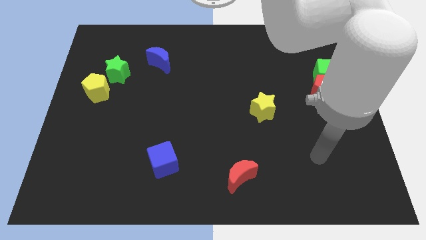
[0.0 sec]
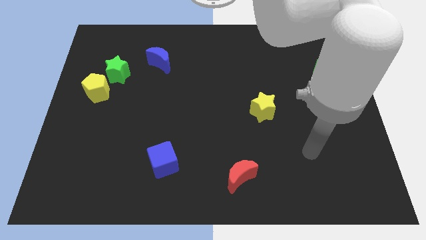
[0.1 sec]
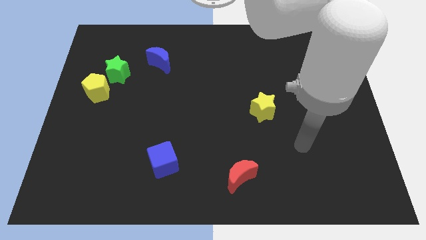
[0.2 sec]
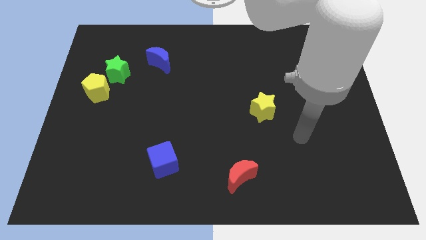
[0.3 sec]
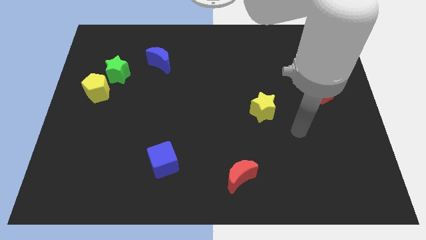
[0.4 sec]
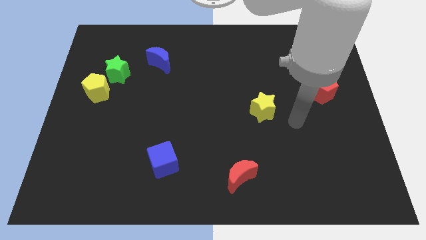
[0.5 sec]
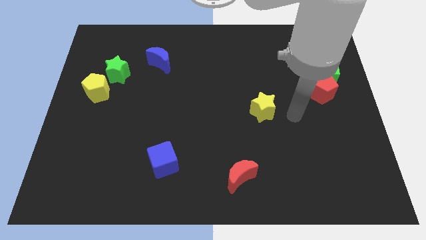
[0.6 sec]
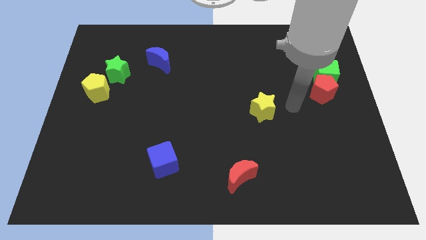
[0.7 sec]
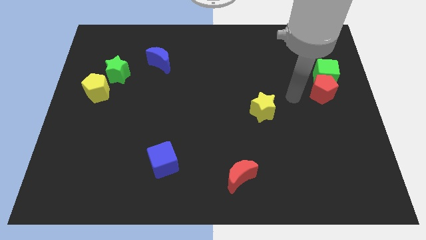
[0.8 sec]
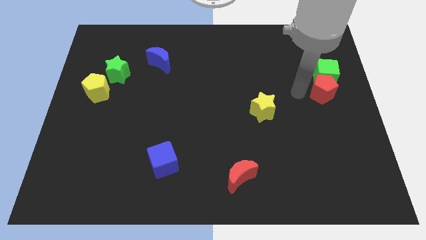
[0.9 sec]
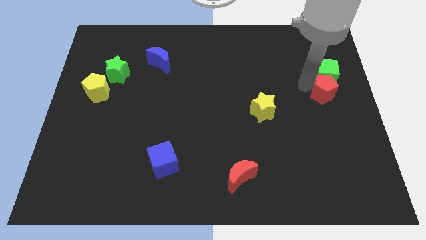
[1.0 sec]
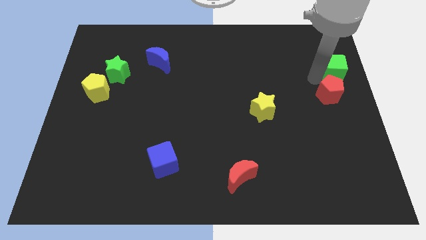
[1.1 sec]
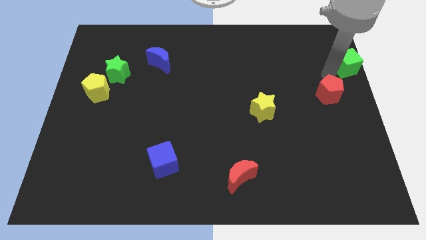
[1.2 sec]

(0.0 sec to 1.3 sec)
pull the red pentagon apart from the green cube

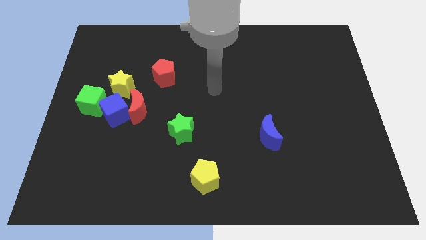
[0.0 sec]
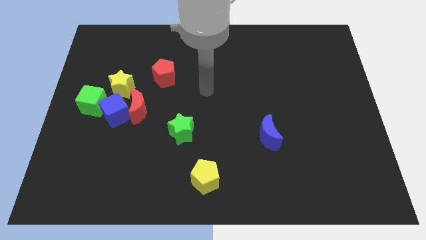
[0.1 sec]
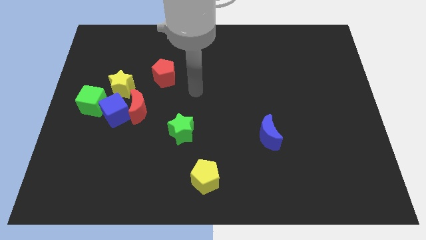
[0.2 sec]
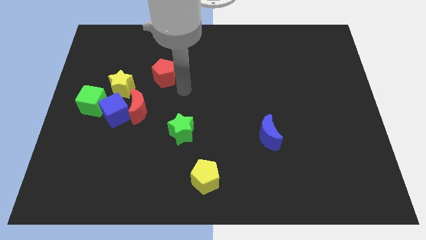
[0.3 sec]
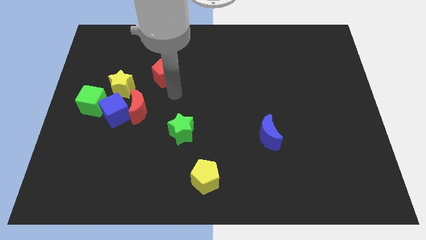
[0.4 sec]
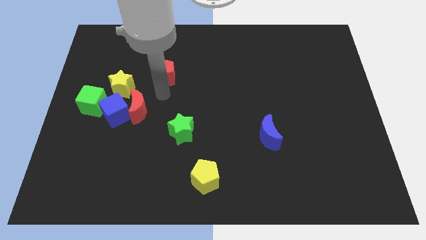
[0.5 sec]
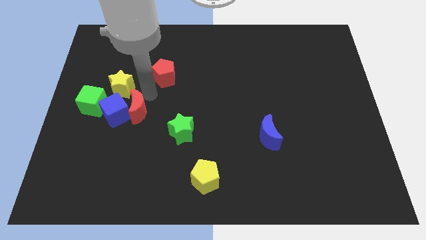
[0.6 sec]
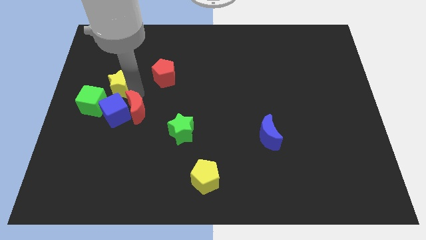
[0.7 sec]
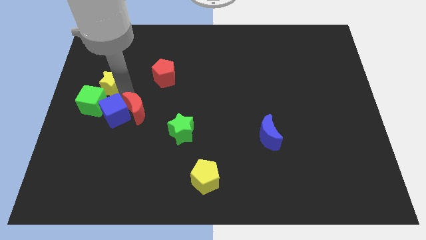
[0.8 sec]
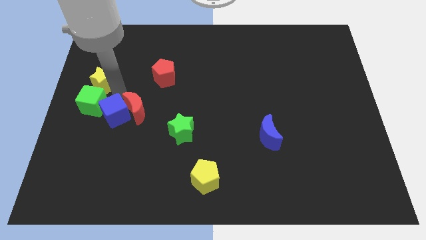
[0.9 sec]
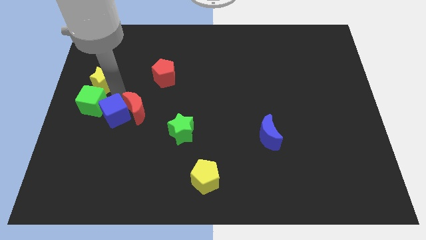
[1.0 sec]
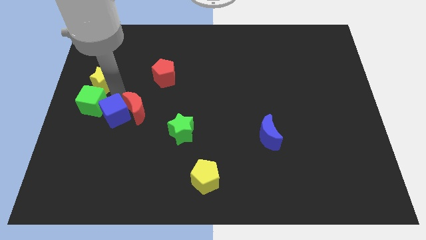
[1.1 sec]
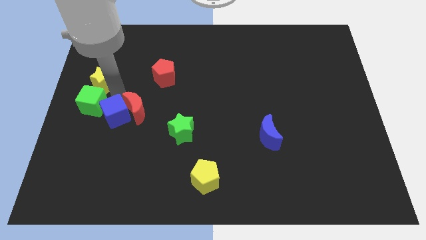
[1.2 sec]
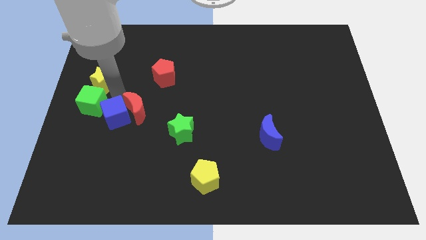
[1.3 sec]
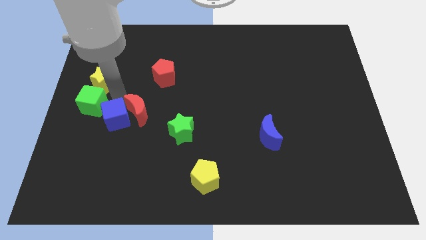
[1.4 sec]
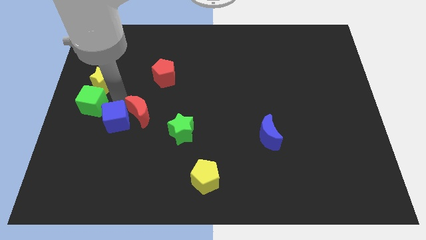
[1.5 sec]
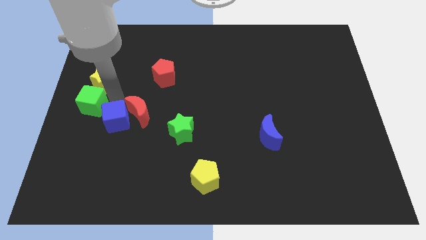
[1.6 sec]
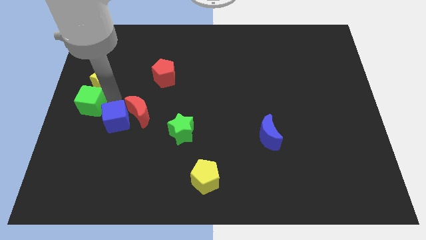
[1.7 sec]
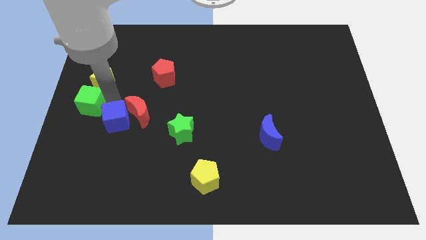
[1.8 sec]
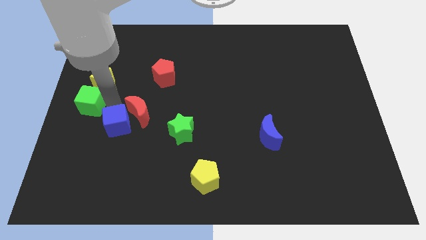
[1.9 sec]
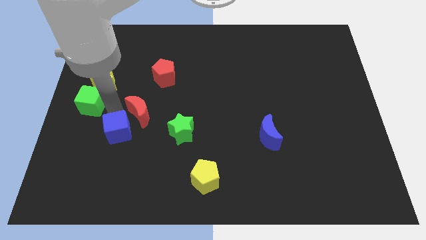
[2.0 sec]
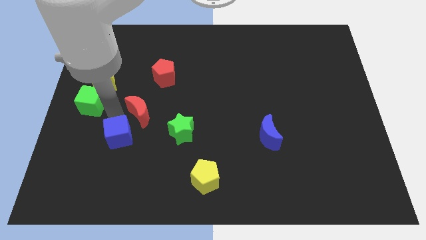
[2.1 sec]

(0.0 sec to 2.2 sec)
separate the blue cube from the clump

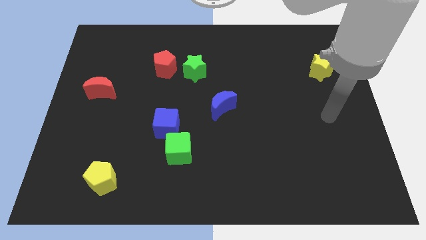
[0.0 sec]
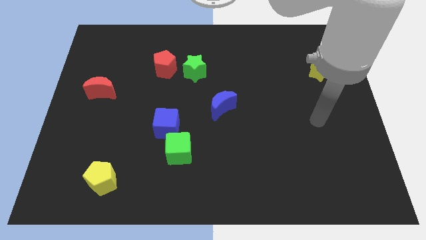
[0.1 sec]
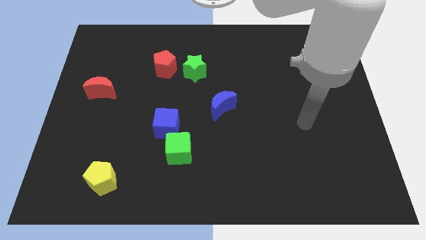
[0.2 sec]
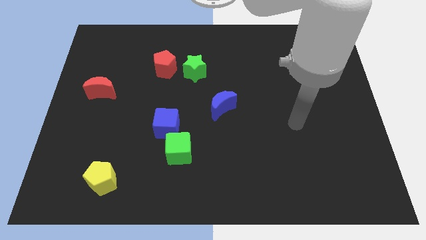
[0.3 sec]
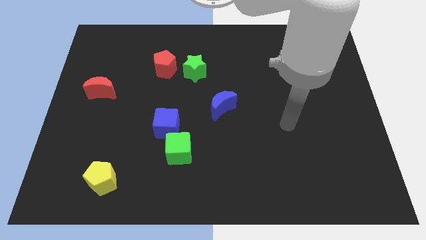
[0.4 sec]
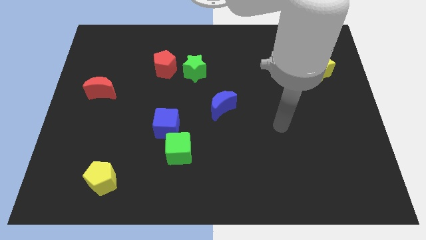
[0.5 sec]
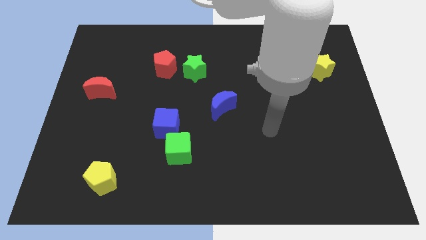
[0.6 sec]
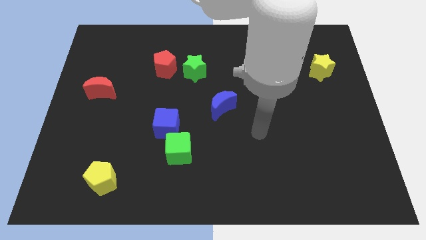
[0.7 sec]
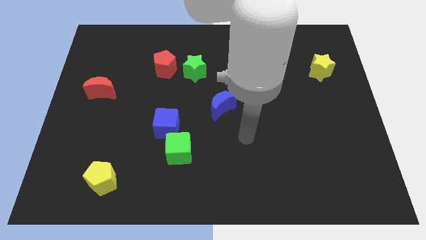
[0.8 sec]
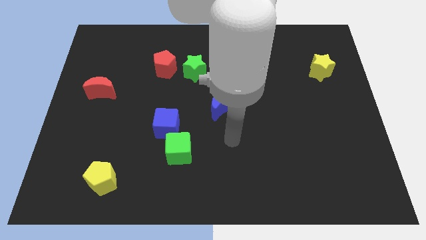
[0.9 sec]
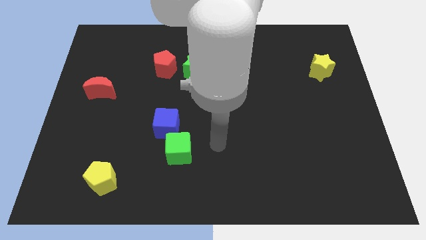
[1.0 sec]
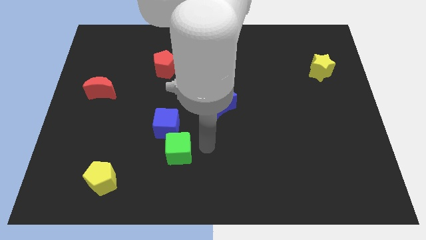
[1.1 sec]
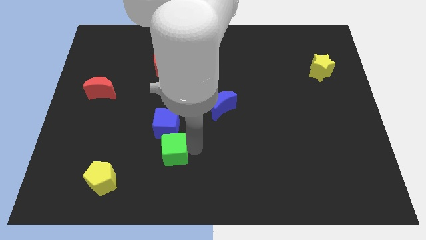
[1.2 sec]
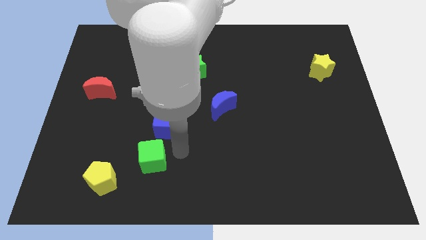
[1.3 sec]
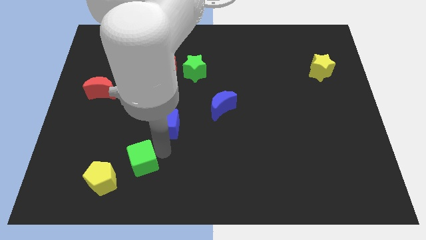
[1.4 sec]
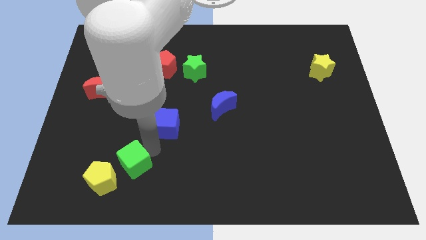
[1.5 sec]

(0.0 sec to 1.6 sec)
move the blue cube away from the green cube

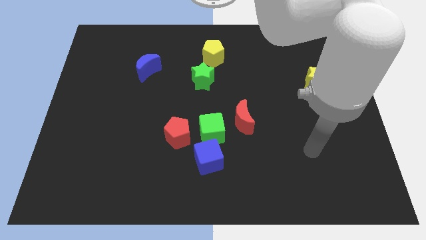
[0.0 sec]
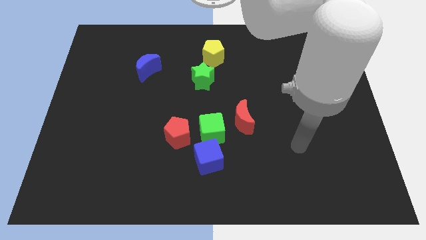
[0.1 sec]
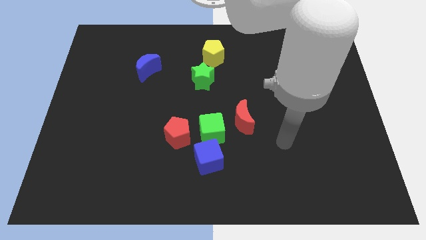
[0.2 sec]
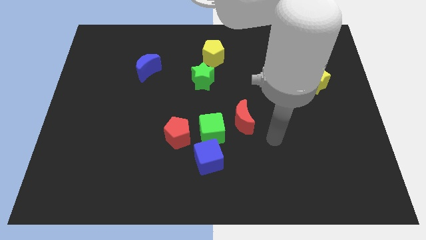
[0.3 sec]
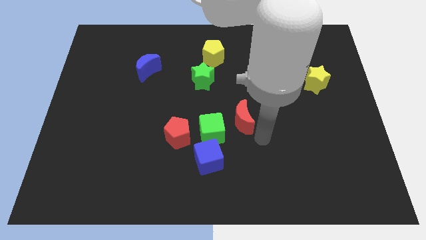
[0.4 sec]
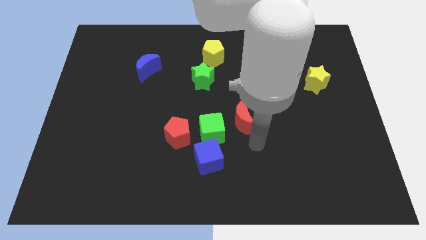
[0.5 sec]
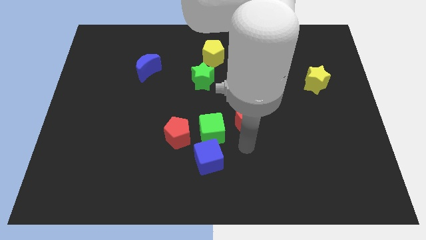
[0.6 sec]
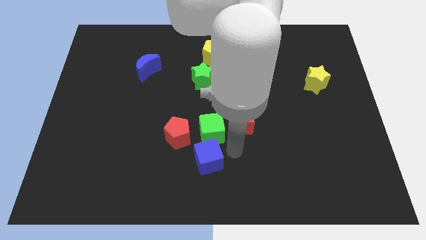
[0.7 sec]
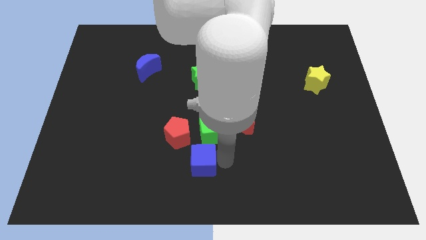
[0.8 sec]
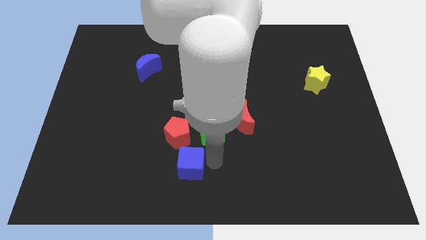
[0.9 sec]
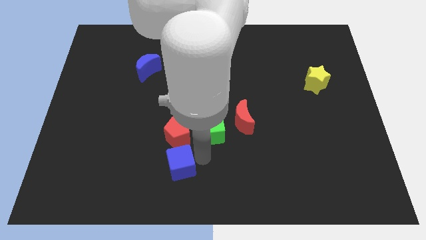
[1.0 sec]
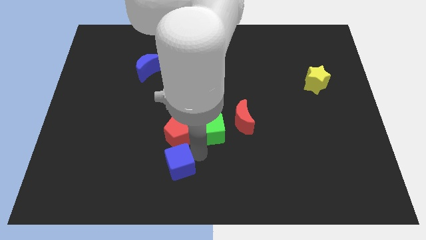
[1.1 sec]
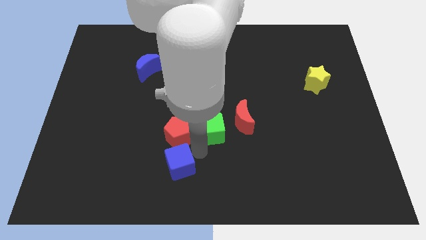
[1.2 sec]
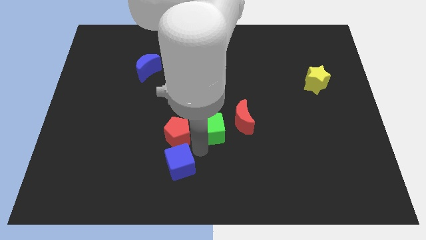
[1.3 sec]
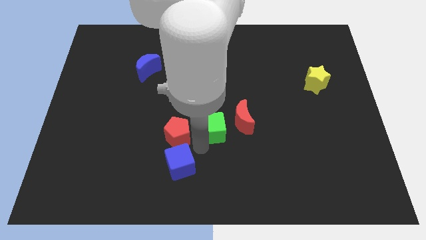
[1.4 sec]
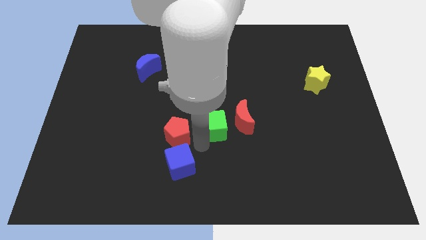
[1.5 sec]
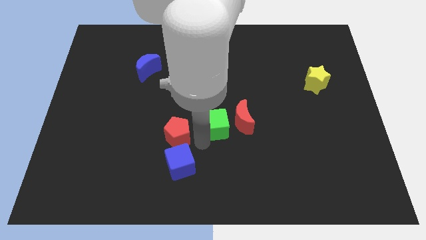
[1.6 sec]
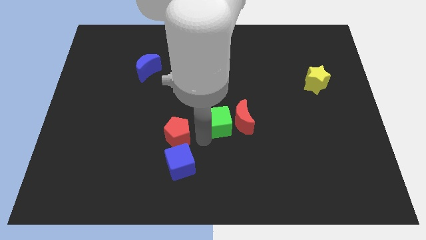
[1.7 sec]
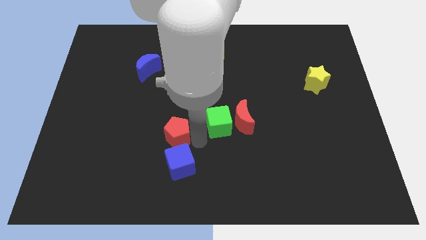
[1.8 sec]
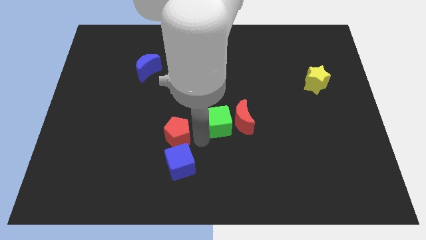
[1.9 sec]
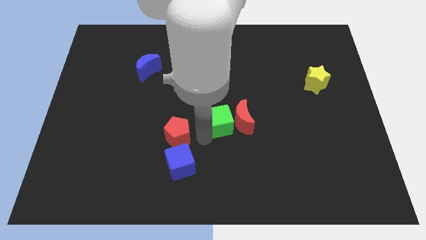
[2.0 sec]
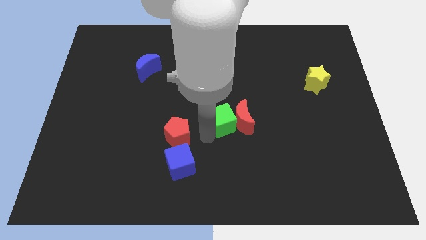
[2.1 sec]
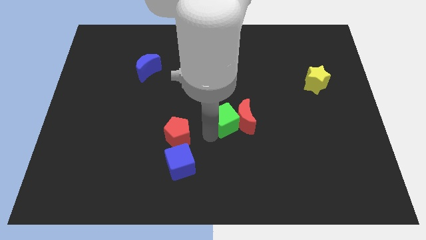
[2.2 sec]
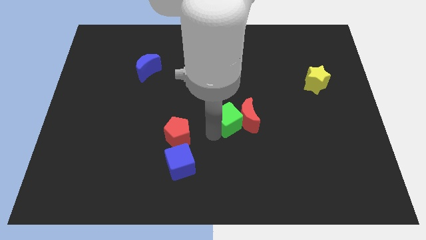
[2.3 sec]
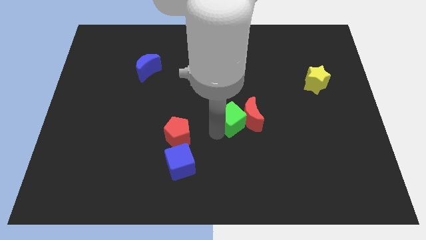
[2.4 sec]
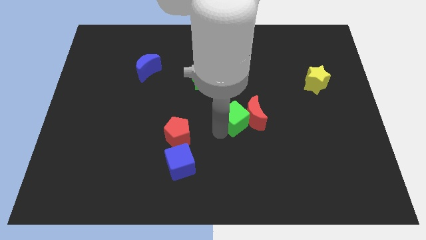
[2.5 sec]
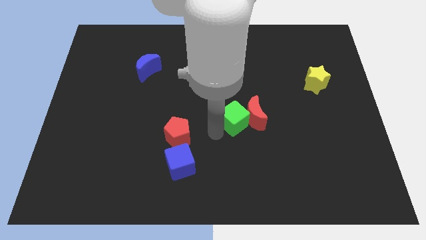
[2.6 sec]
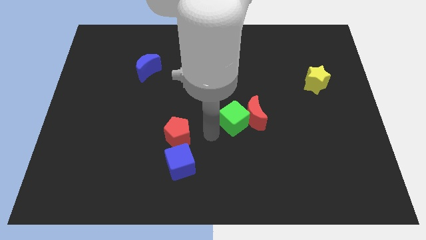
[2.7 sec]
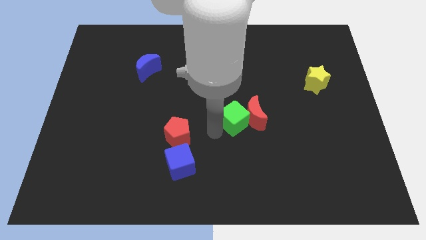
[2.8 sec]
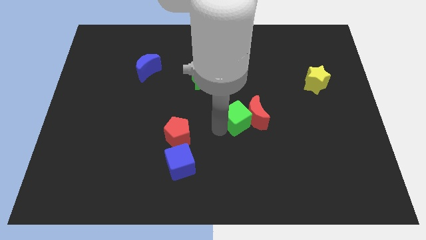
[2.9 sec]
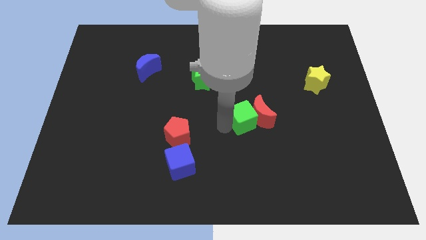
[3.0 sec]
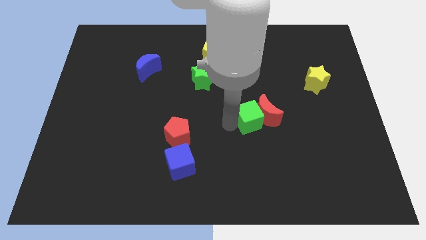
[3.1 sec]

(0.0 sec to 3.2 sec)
move the green cube away from the blue cube, red moon, and red pentagon

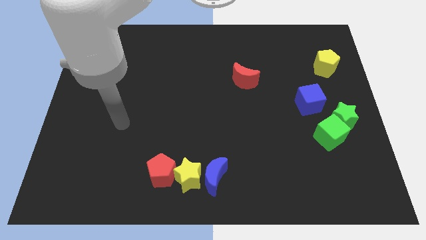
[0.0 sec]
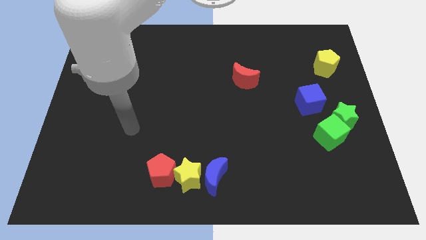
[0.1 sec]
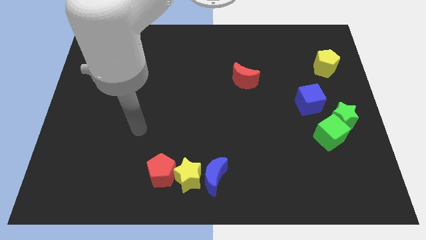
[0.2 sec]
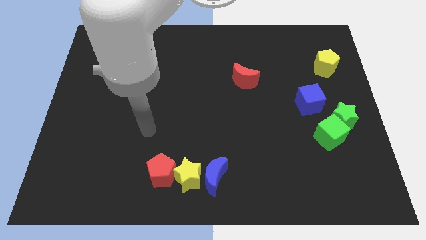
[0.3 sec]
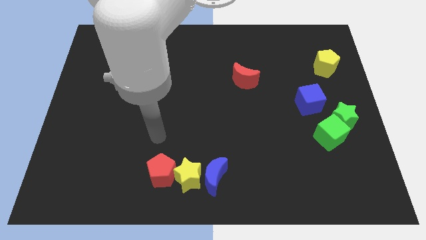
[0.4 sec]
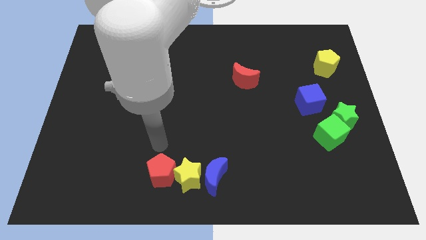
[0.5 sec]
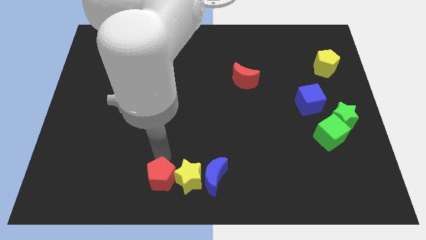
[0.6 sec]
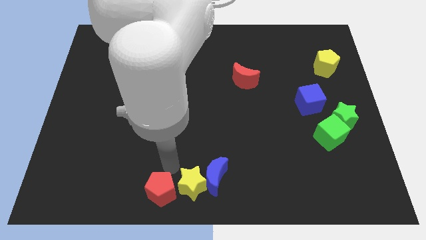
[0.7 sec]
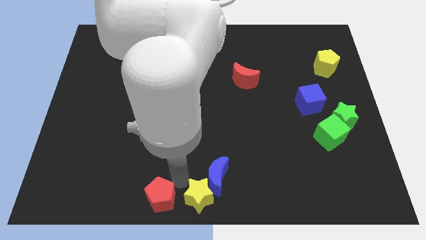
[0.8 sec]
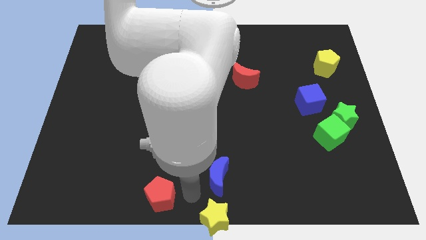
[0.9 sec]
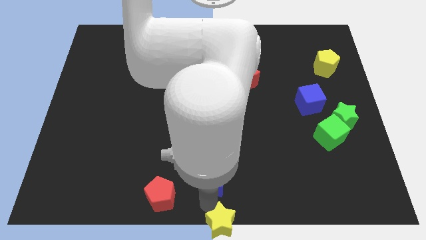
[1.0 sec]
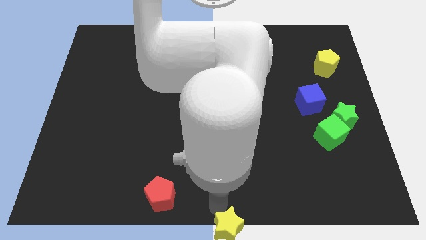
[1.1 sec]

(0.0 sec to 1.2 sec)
pull the blue moon apart from the yellow star
